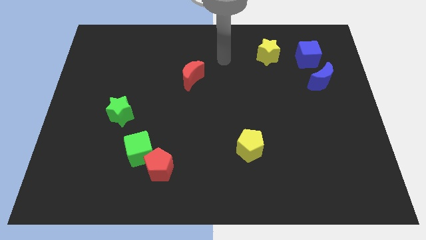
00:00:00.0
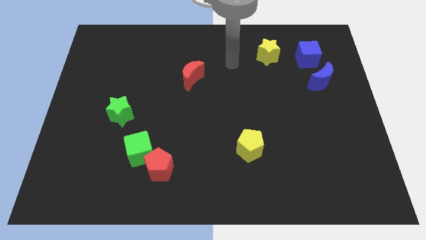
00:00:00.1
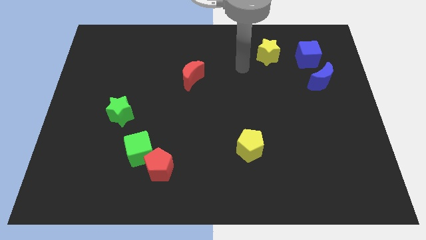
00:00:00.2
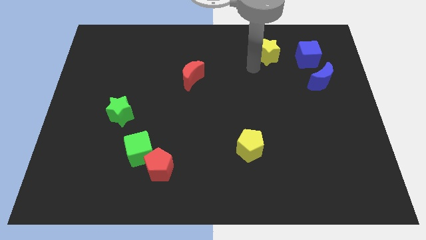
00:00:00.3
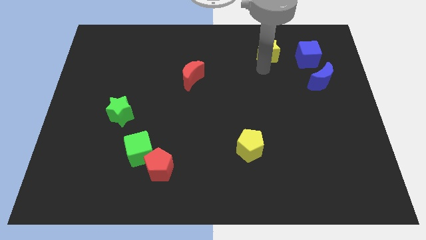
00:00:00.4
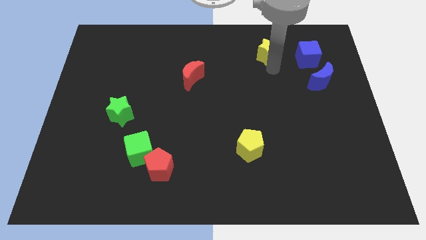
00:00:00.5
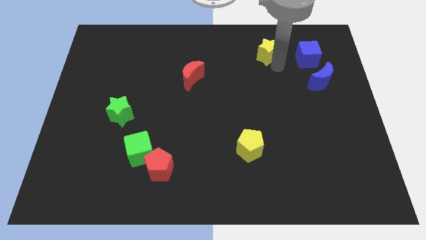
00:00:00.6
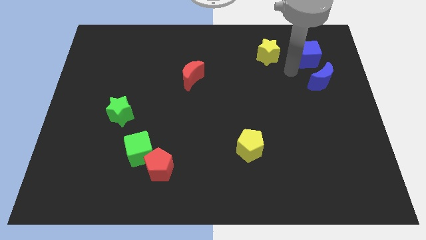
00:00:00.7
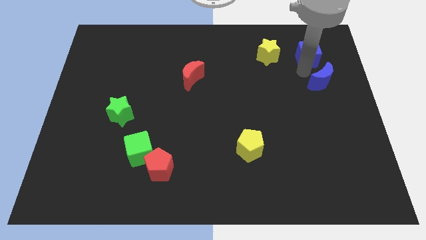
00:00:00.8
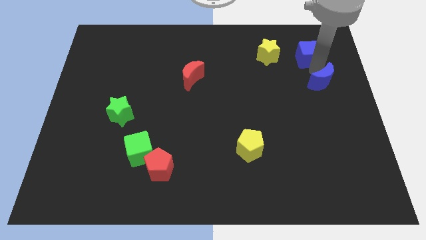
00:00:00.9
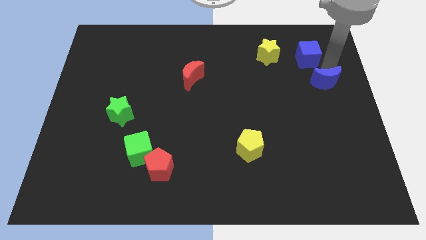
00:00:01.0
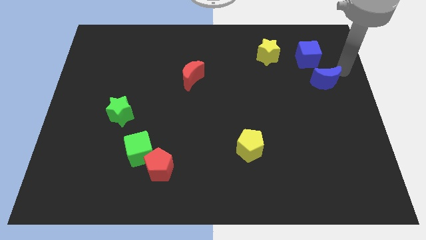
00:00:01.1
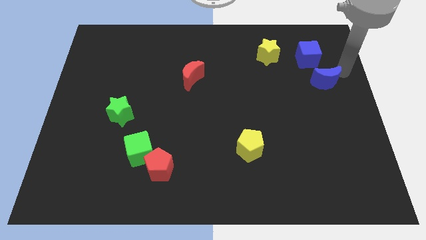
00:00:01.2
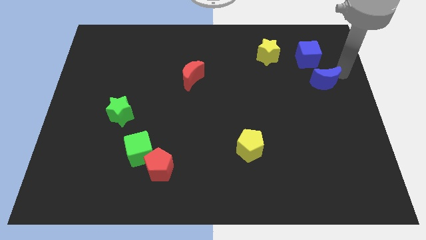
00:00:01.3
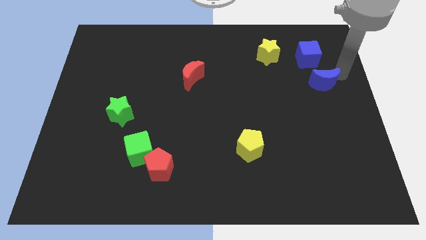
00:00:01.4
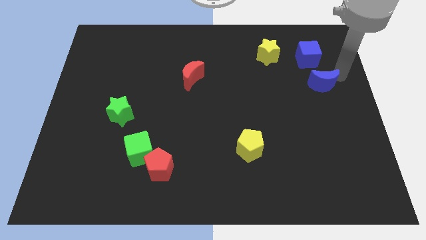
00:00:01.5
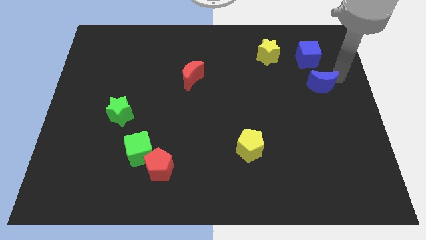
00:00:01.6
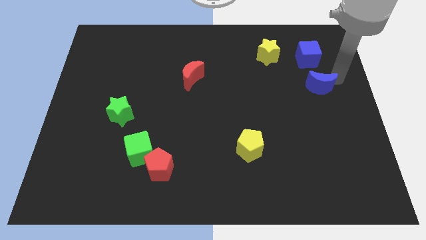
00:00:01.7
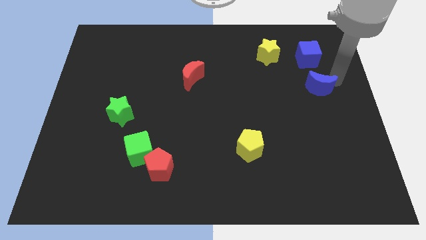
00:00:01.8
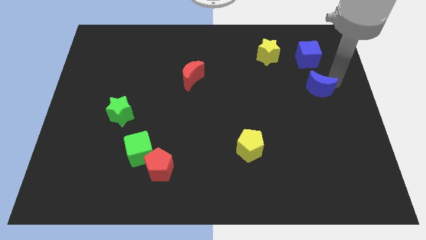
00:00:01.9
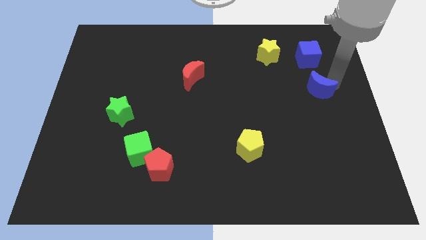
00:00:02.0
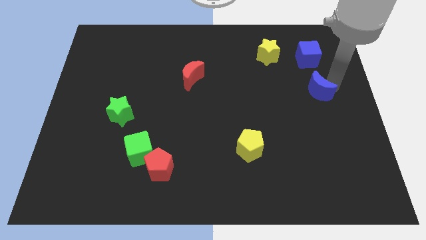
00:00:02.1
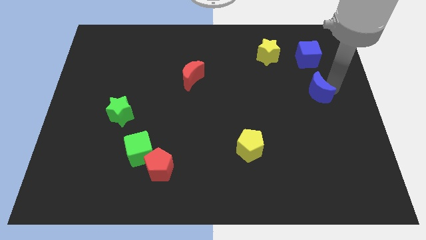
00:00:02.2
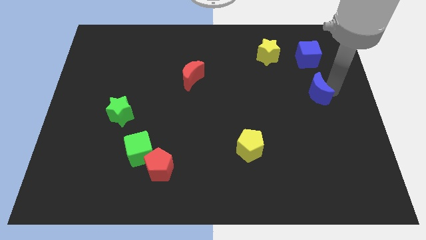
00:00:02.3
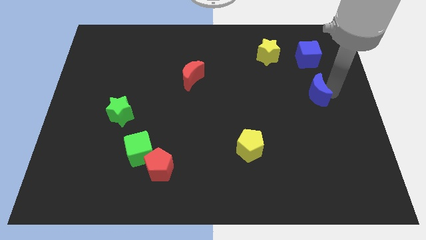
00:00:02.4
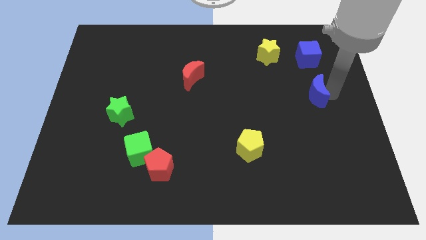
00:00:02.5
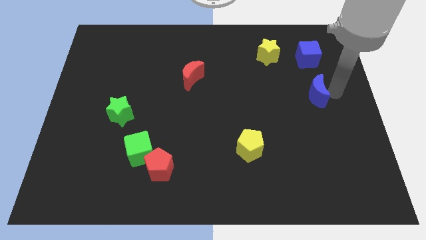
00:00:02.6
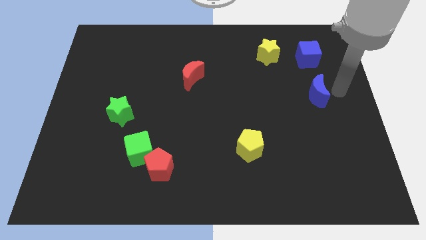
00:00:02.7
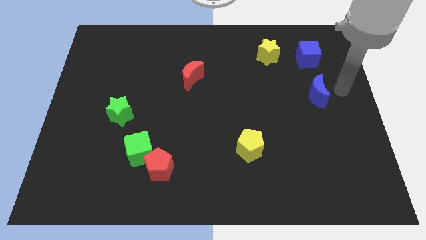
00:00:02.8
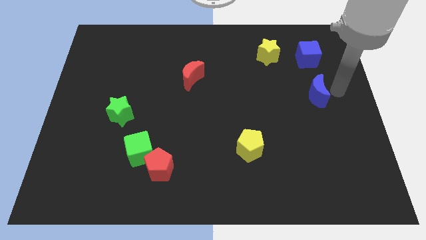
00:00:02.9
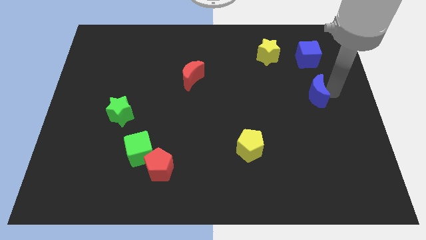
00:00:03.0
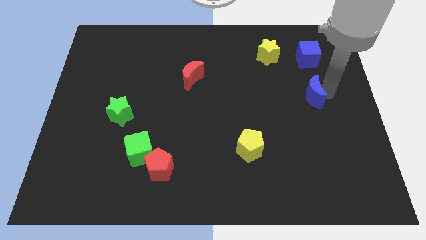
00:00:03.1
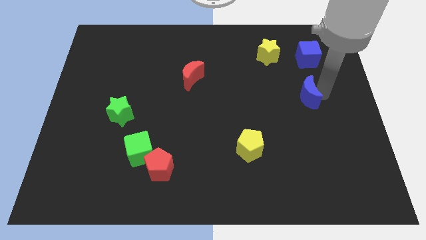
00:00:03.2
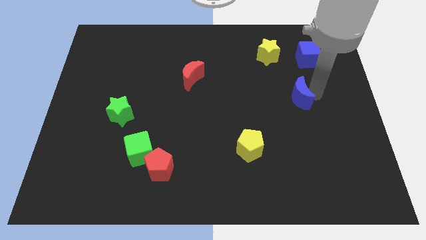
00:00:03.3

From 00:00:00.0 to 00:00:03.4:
slightly push the blue moon diagonally downwards and to the left

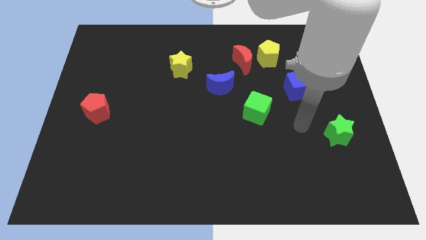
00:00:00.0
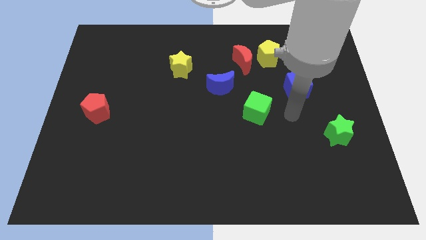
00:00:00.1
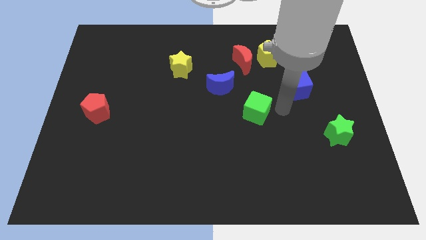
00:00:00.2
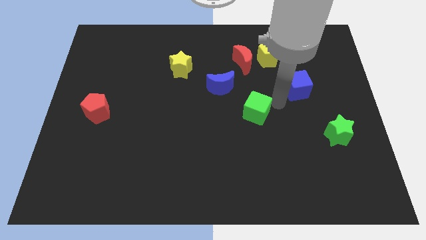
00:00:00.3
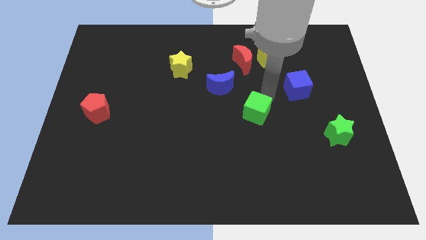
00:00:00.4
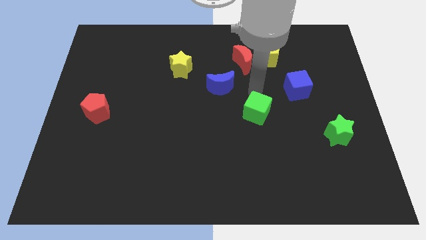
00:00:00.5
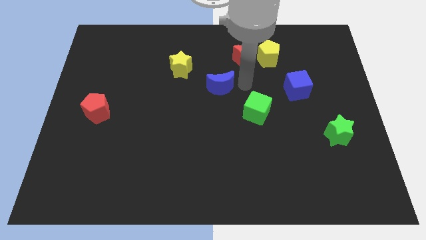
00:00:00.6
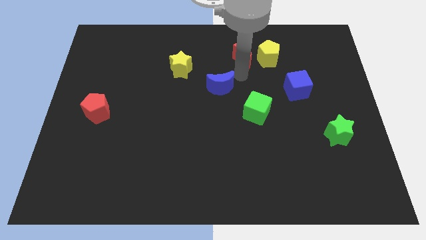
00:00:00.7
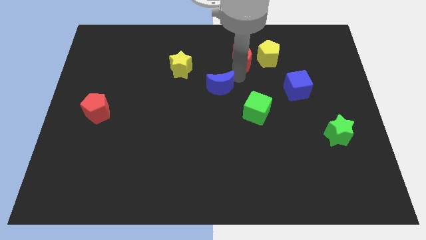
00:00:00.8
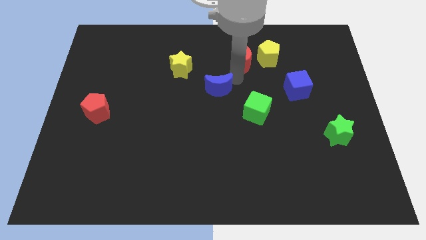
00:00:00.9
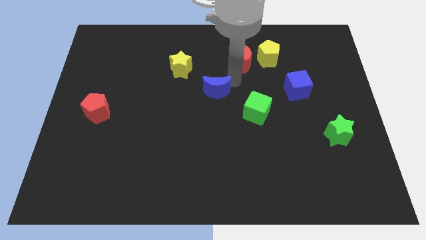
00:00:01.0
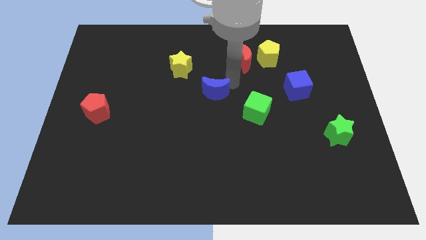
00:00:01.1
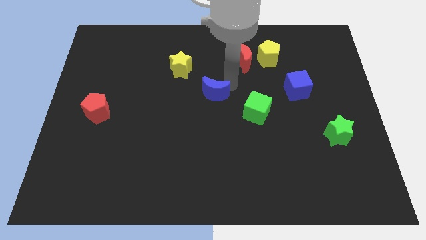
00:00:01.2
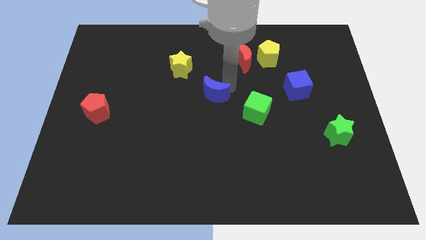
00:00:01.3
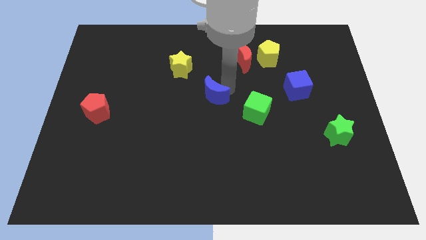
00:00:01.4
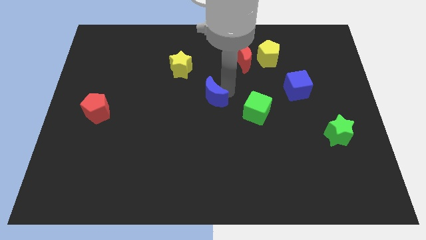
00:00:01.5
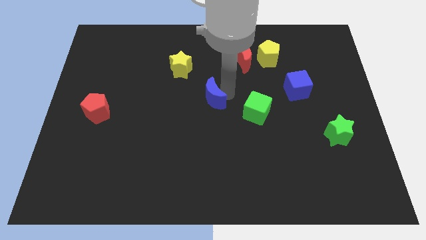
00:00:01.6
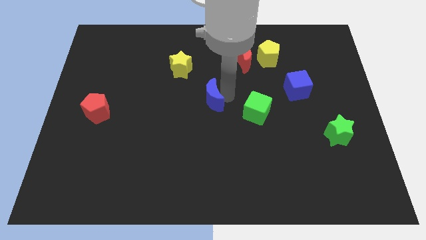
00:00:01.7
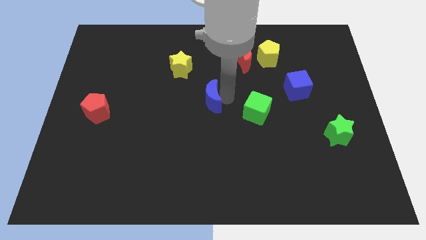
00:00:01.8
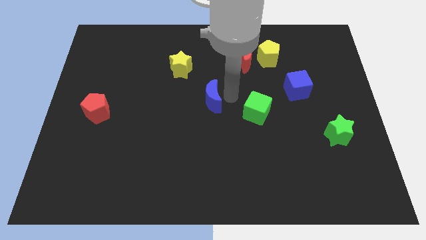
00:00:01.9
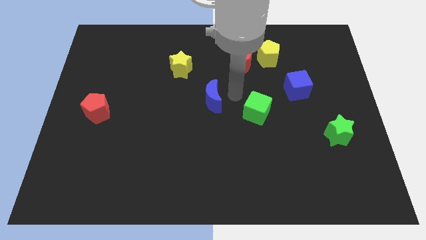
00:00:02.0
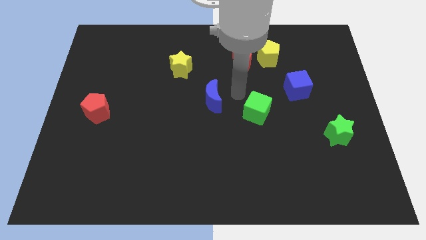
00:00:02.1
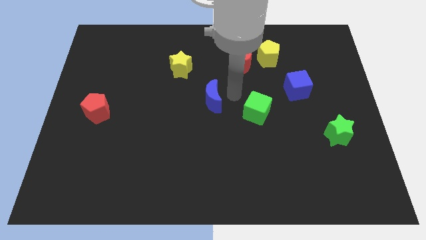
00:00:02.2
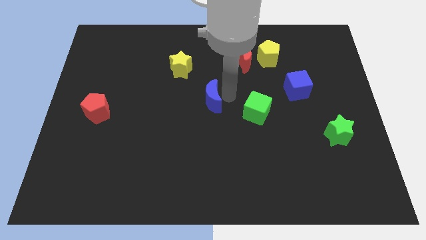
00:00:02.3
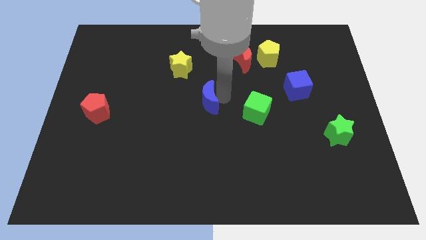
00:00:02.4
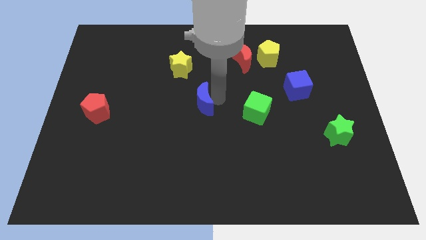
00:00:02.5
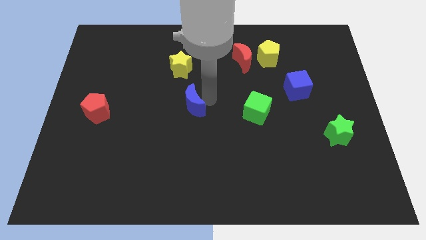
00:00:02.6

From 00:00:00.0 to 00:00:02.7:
push the blue moon down and left diagonally a little bit

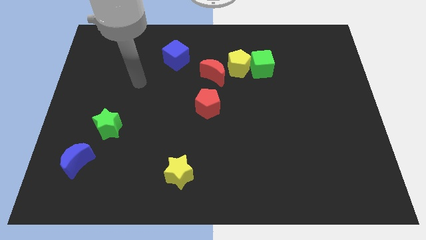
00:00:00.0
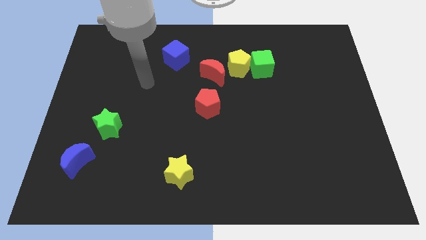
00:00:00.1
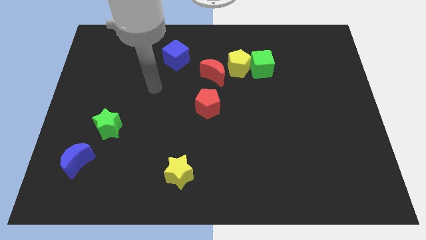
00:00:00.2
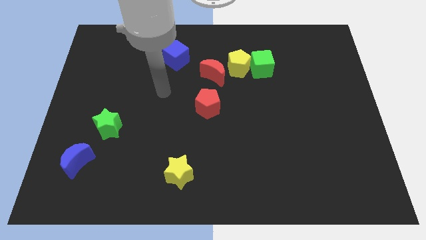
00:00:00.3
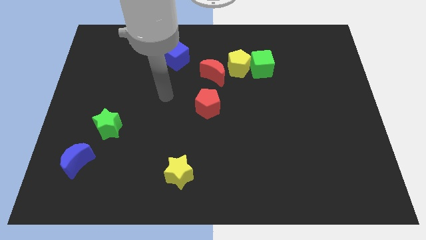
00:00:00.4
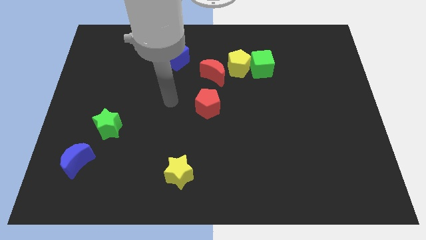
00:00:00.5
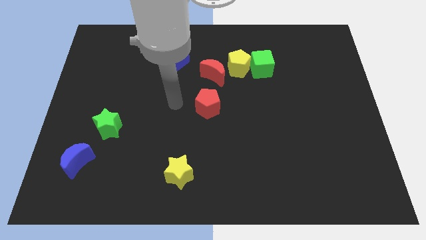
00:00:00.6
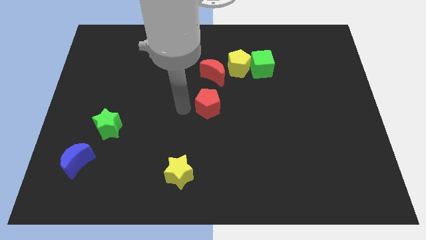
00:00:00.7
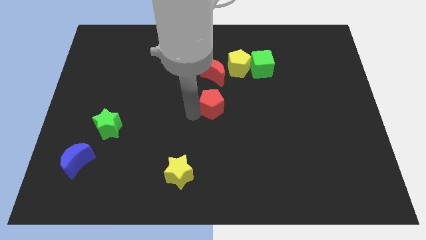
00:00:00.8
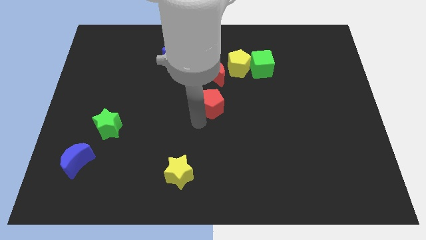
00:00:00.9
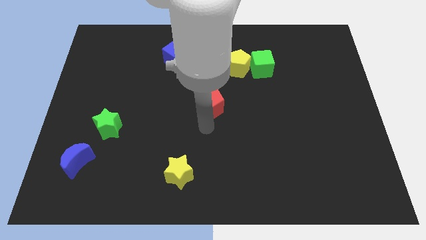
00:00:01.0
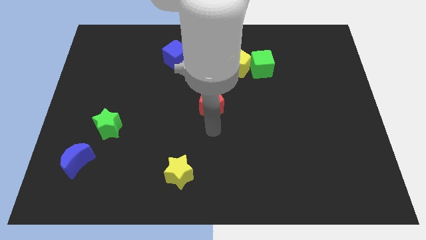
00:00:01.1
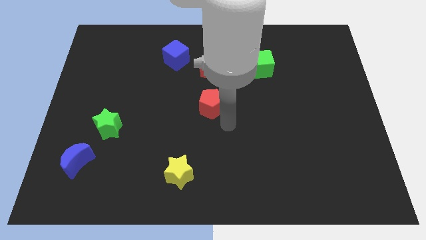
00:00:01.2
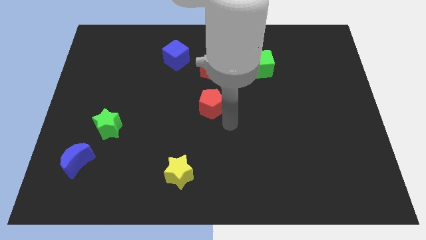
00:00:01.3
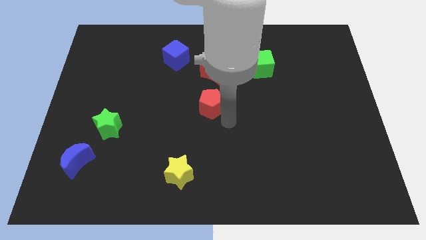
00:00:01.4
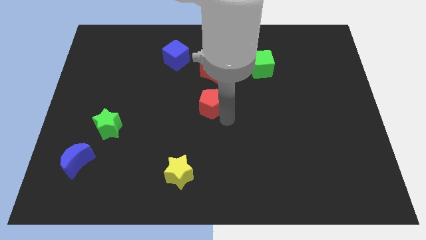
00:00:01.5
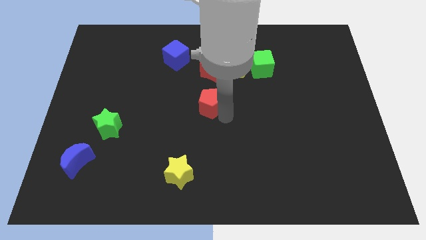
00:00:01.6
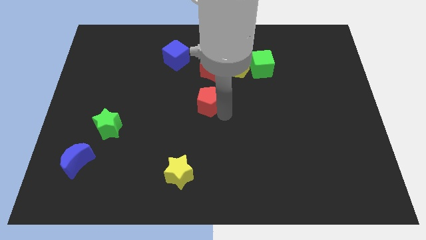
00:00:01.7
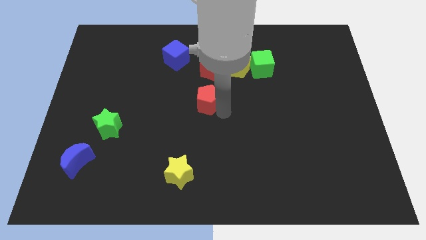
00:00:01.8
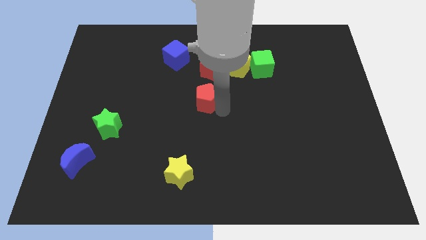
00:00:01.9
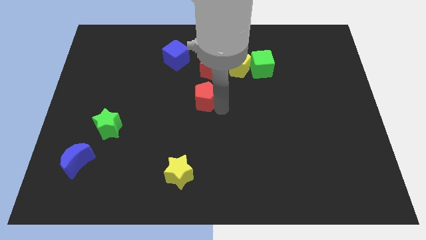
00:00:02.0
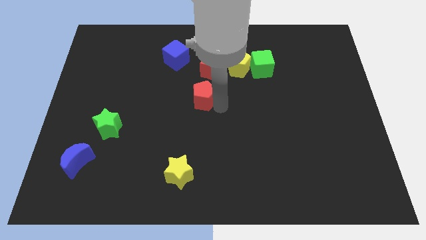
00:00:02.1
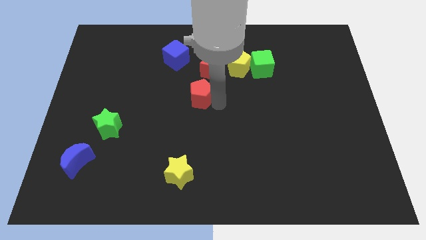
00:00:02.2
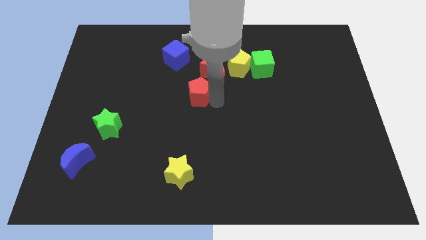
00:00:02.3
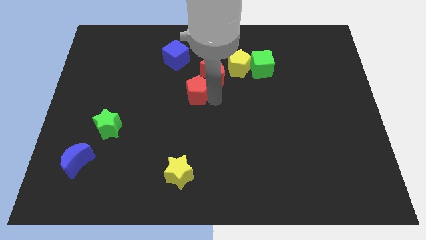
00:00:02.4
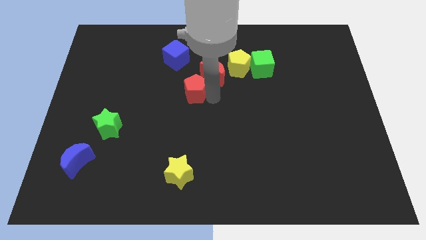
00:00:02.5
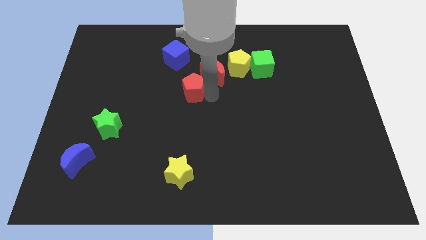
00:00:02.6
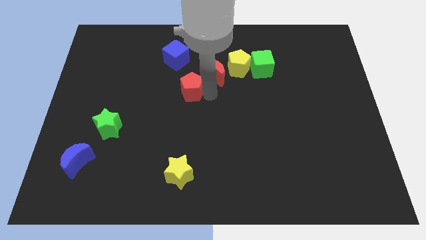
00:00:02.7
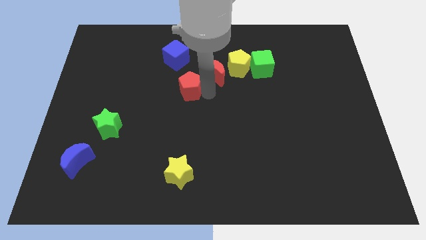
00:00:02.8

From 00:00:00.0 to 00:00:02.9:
slightly slide the red pentagon upwards and to the left diagonally
